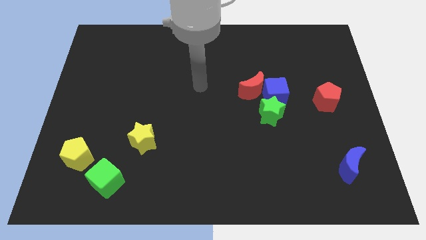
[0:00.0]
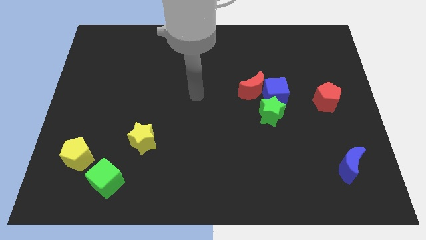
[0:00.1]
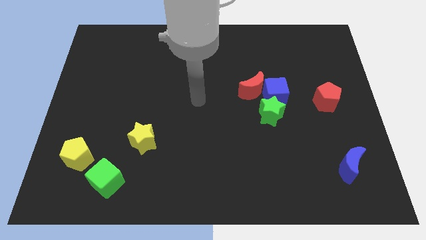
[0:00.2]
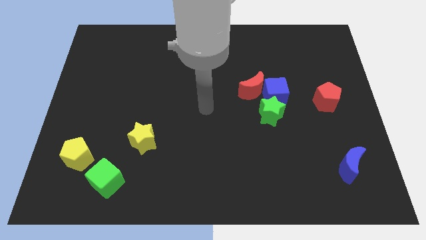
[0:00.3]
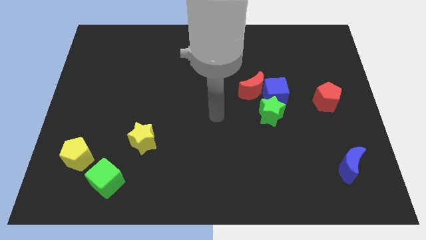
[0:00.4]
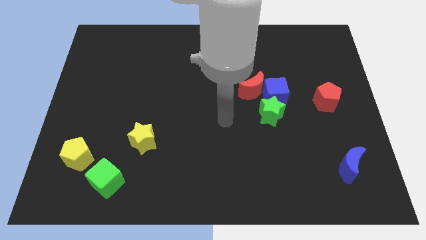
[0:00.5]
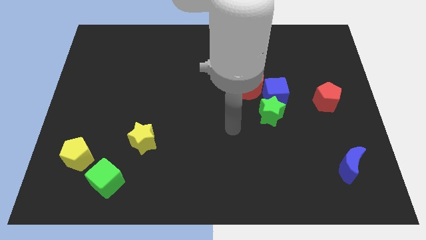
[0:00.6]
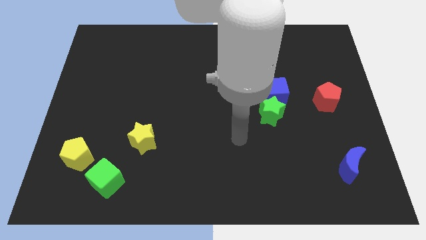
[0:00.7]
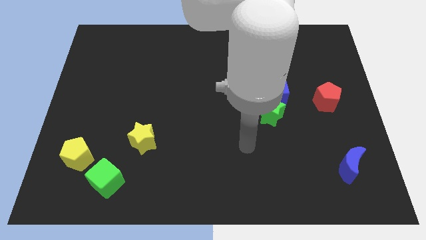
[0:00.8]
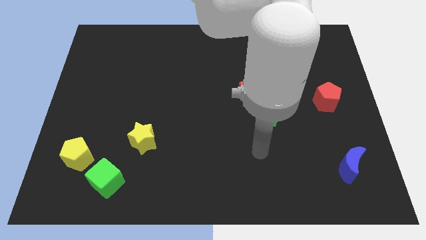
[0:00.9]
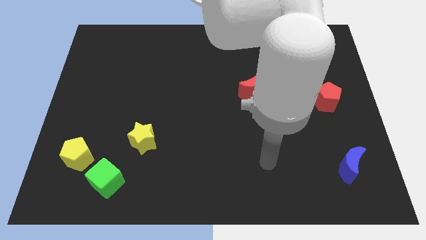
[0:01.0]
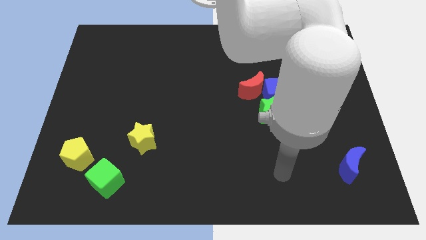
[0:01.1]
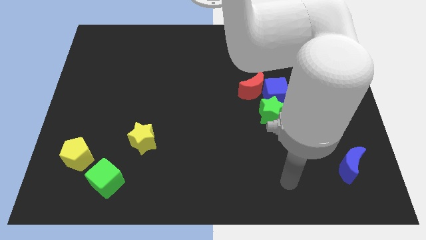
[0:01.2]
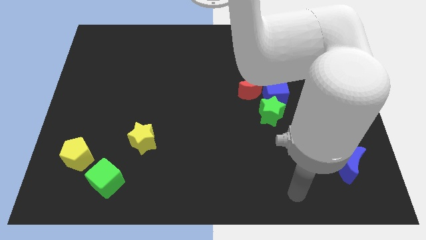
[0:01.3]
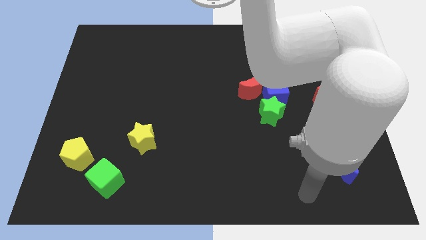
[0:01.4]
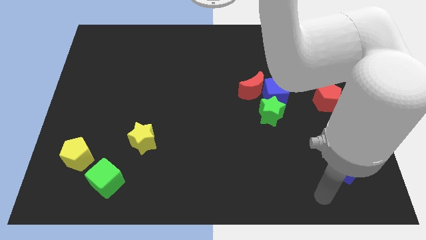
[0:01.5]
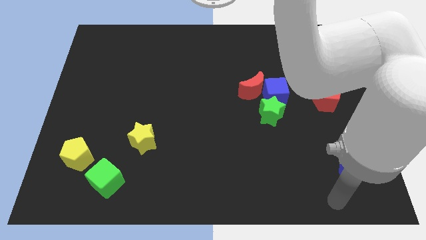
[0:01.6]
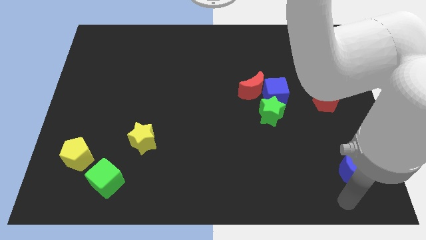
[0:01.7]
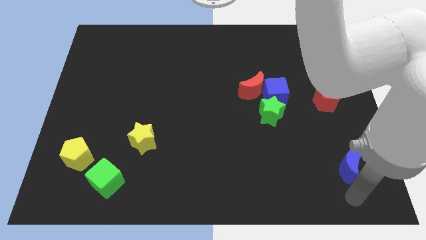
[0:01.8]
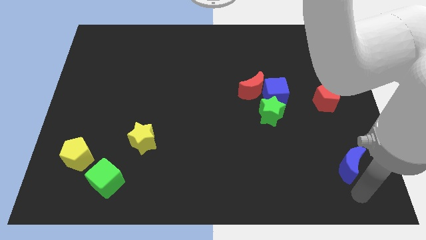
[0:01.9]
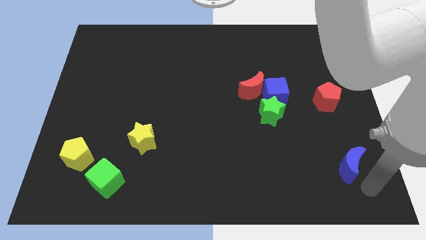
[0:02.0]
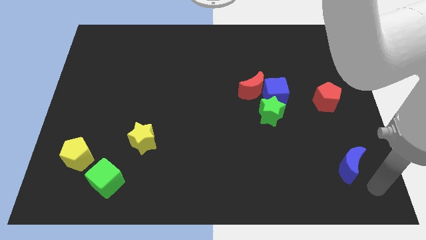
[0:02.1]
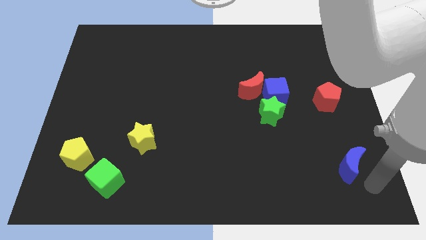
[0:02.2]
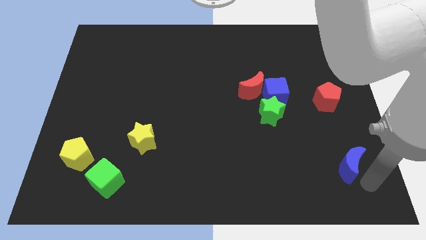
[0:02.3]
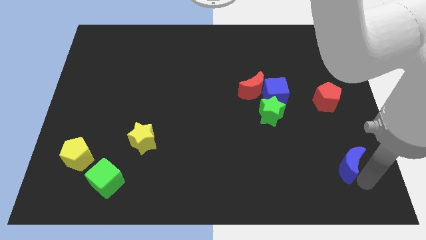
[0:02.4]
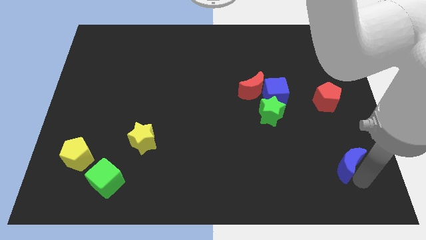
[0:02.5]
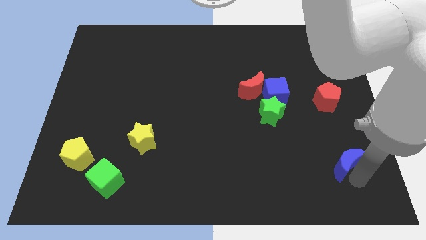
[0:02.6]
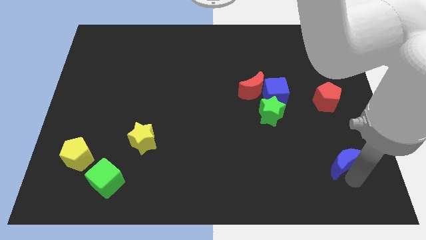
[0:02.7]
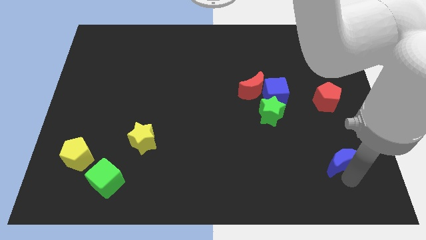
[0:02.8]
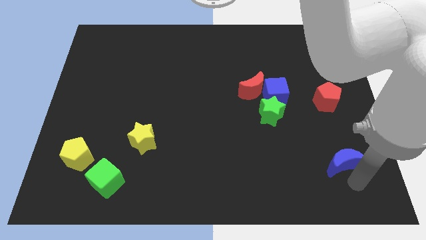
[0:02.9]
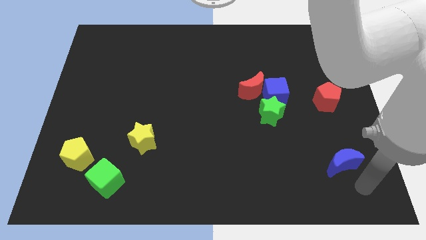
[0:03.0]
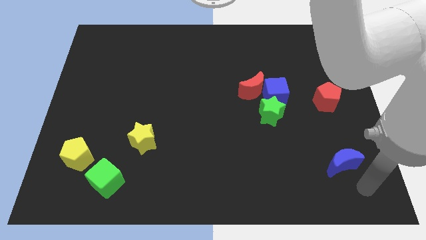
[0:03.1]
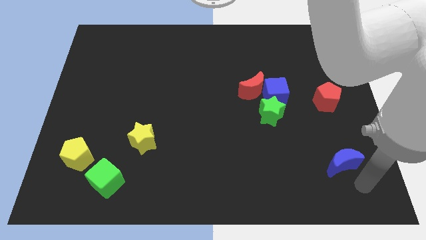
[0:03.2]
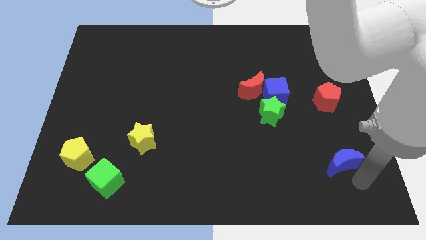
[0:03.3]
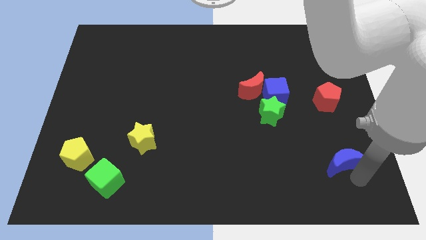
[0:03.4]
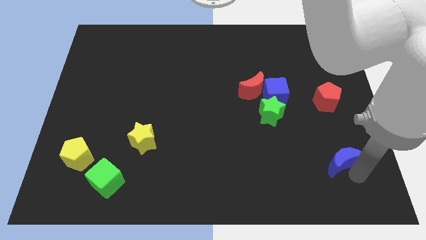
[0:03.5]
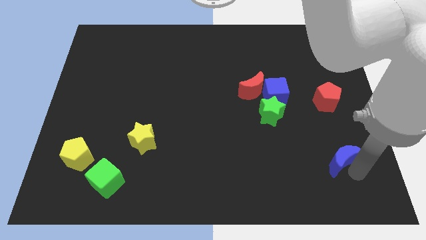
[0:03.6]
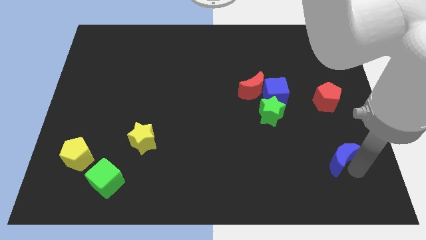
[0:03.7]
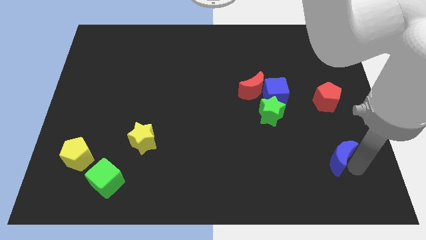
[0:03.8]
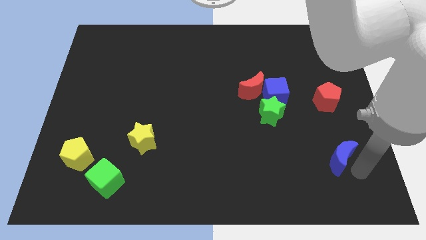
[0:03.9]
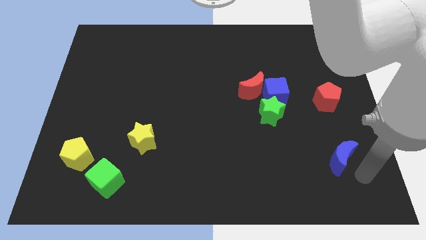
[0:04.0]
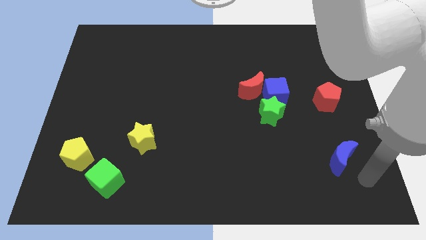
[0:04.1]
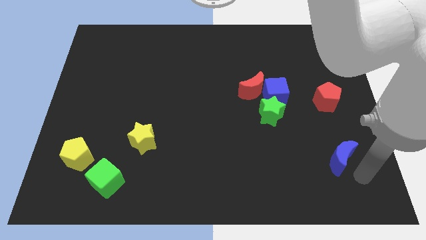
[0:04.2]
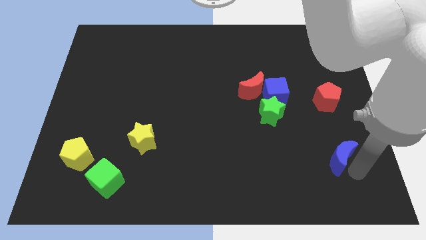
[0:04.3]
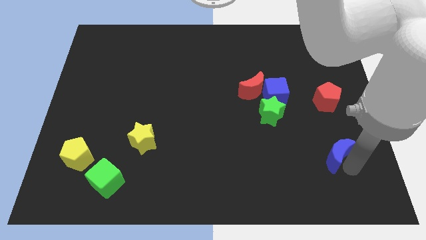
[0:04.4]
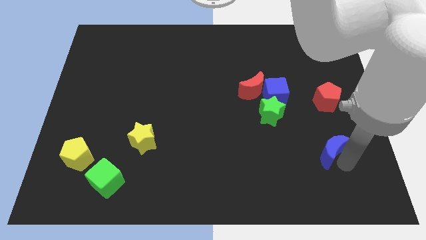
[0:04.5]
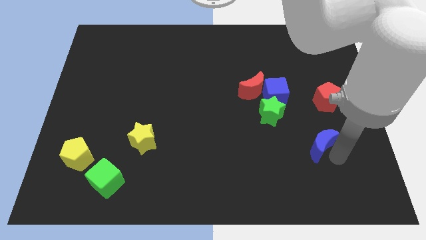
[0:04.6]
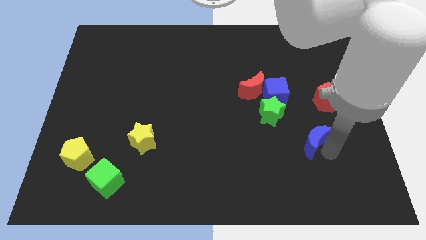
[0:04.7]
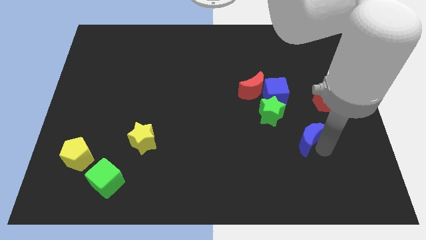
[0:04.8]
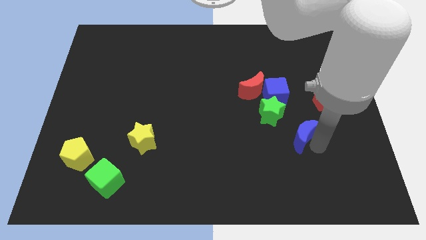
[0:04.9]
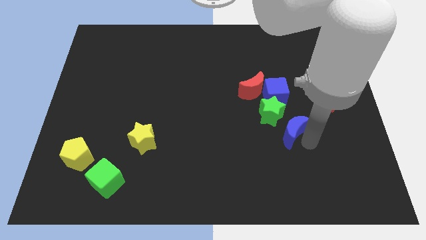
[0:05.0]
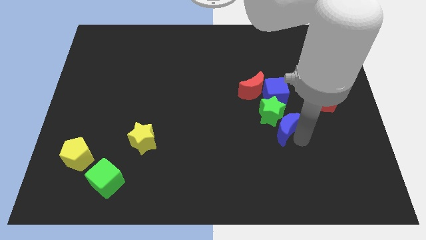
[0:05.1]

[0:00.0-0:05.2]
put the blue moon next to the green star

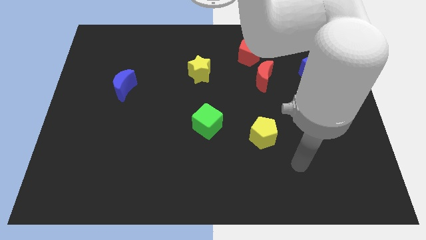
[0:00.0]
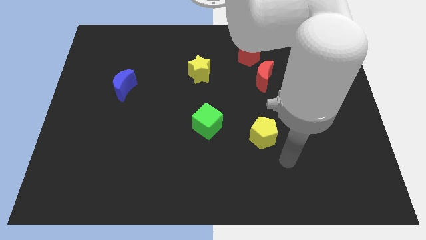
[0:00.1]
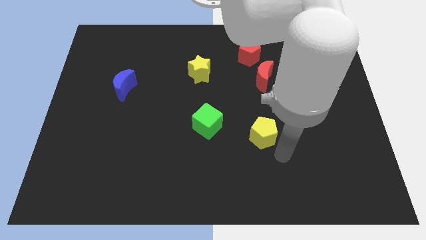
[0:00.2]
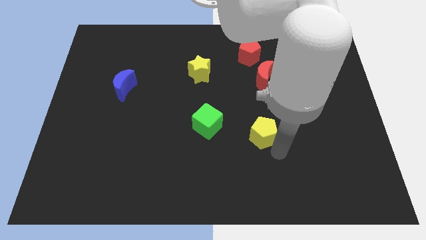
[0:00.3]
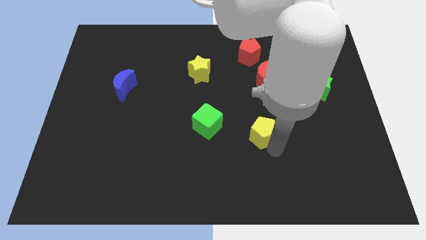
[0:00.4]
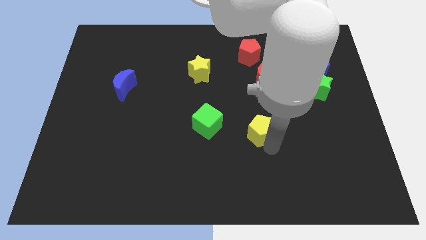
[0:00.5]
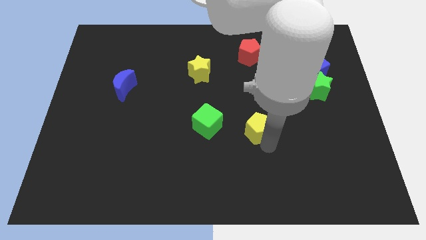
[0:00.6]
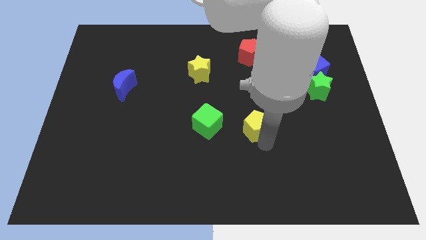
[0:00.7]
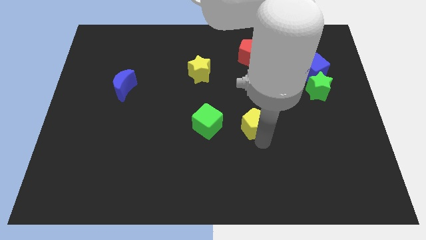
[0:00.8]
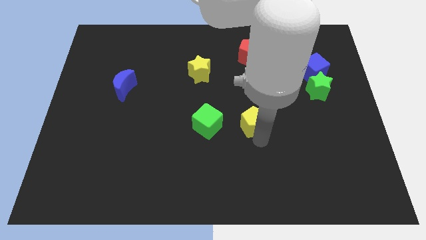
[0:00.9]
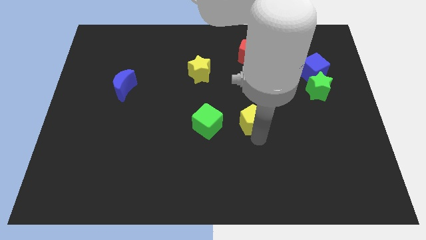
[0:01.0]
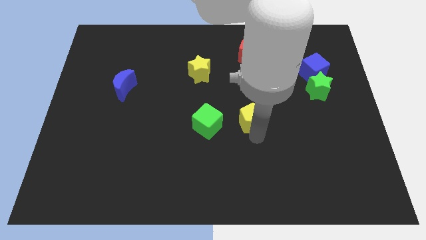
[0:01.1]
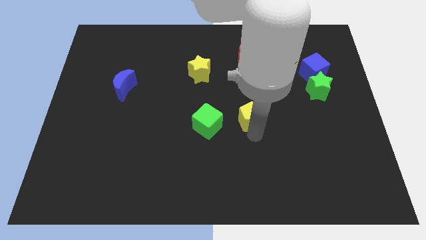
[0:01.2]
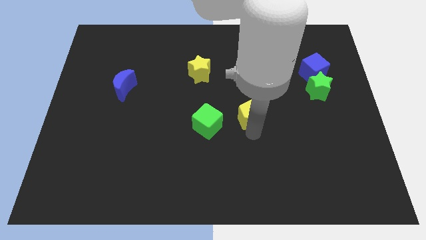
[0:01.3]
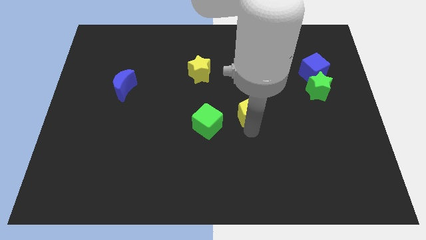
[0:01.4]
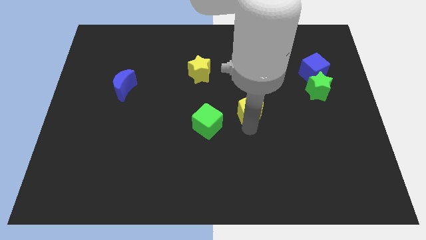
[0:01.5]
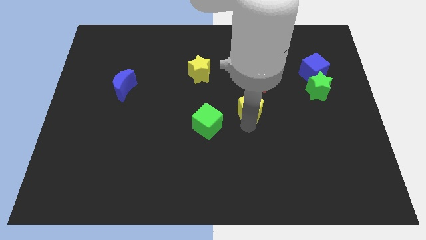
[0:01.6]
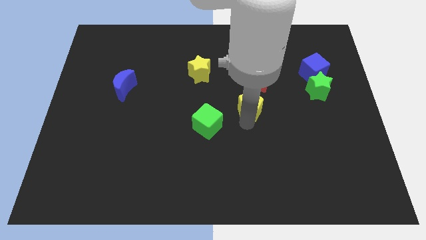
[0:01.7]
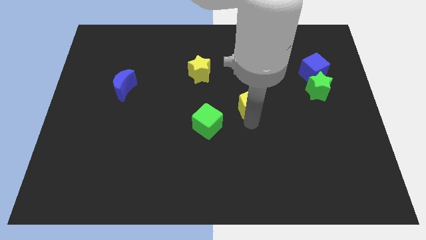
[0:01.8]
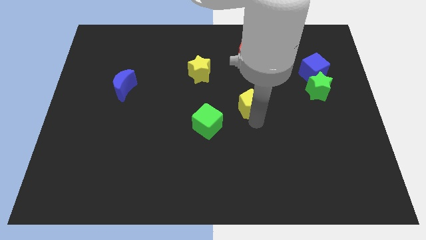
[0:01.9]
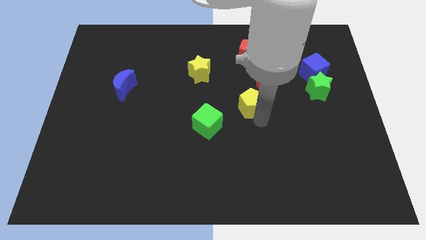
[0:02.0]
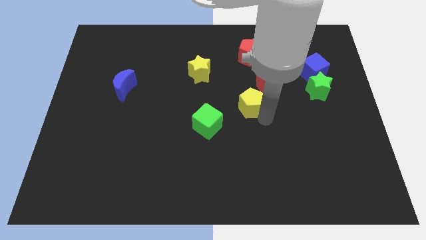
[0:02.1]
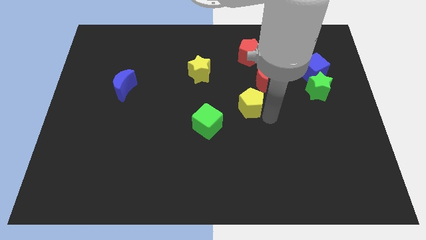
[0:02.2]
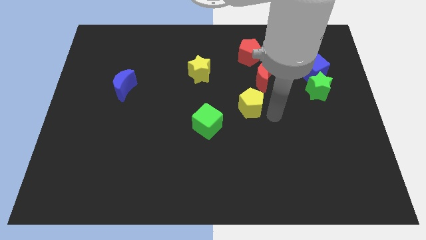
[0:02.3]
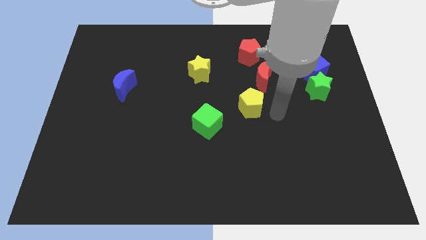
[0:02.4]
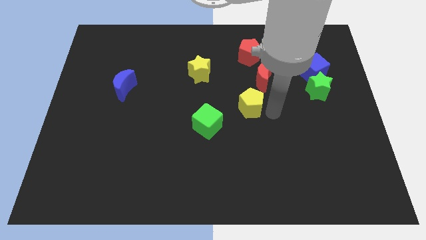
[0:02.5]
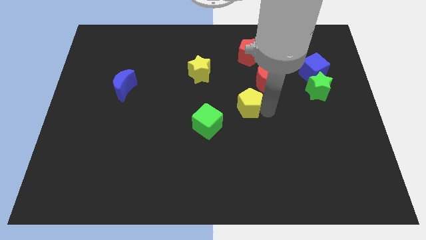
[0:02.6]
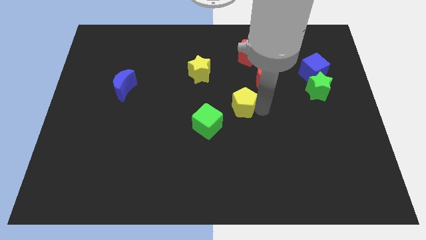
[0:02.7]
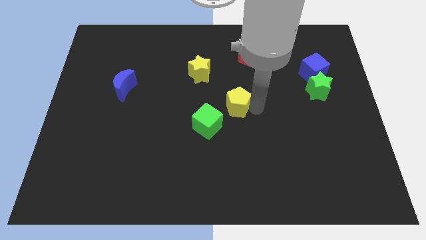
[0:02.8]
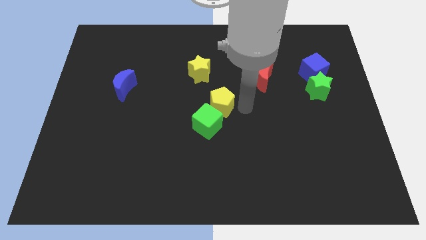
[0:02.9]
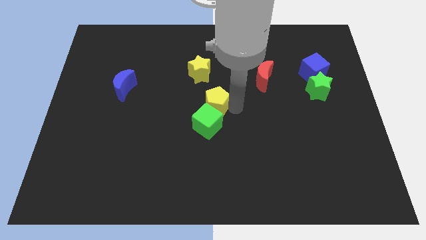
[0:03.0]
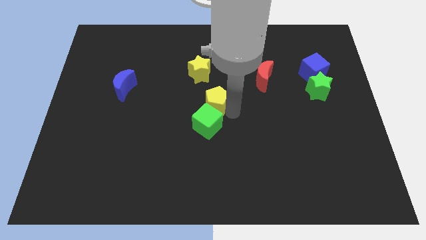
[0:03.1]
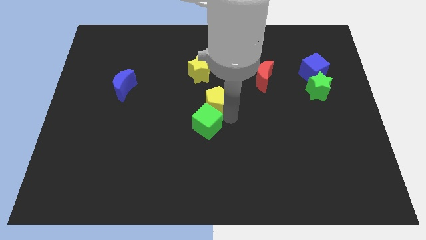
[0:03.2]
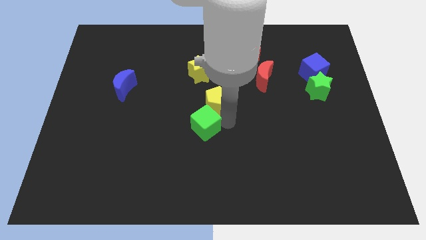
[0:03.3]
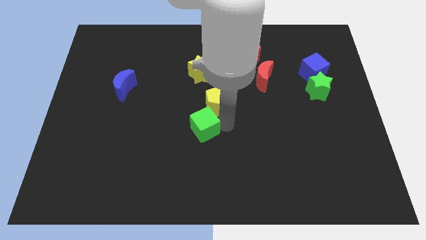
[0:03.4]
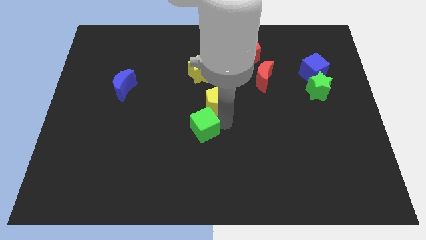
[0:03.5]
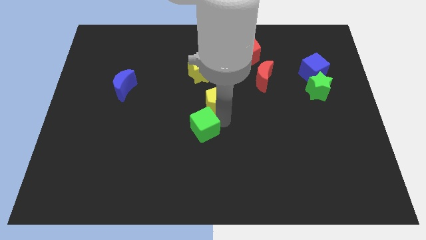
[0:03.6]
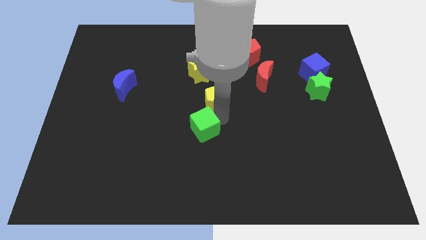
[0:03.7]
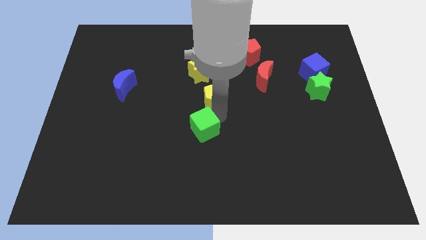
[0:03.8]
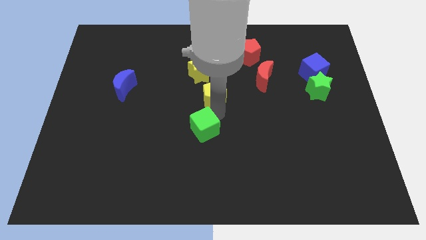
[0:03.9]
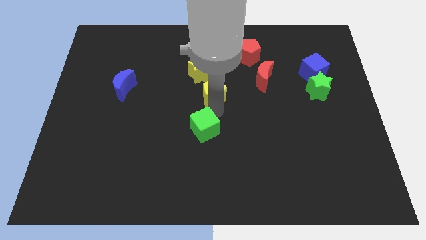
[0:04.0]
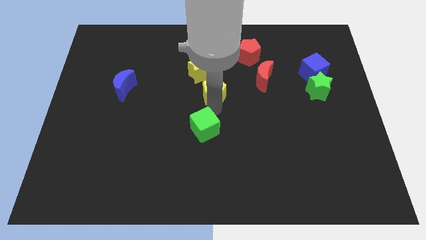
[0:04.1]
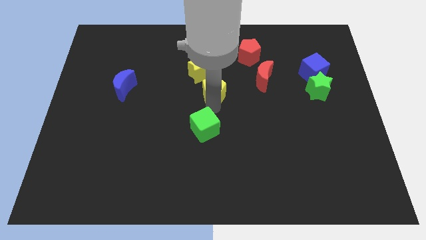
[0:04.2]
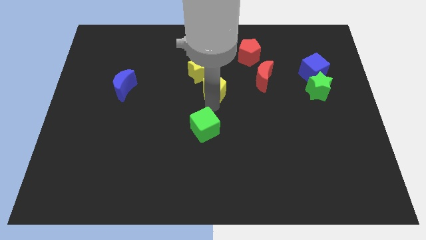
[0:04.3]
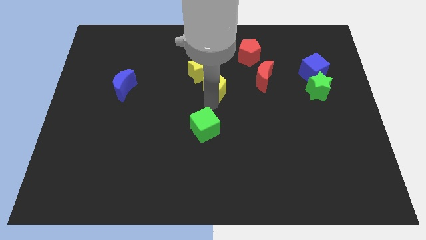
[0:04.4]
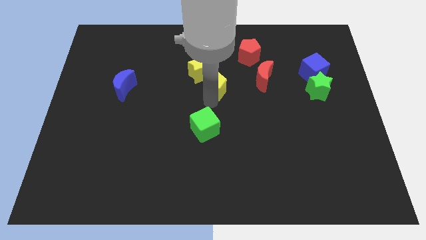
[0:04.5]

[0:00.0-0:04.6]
put the yellow pentagon to the yellow star
